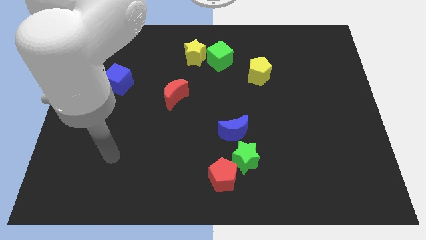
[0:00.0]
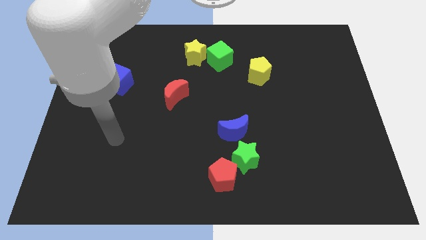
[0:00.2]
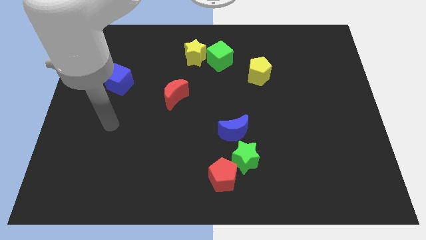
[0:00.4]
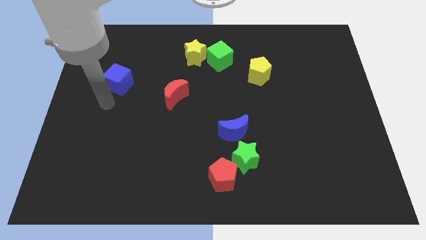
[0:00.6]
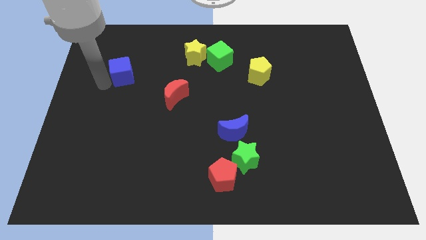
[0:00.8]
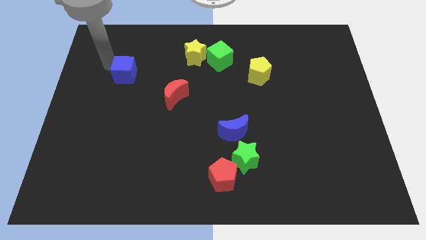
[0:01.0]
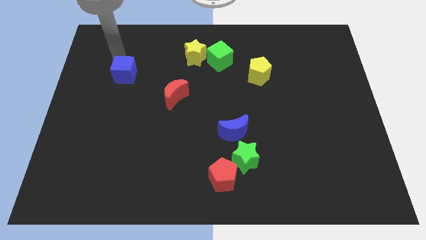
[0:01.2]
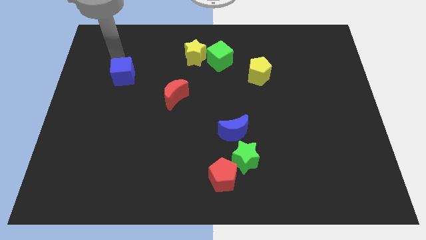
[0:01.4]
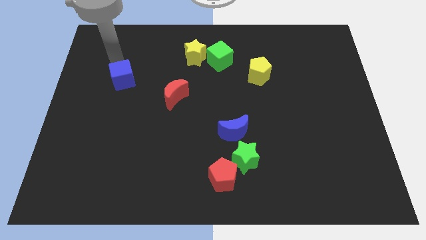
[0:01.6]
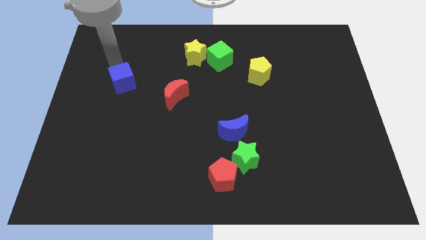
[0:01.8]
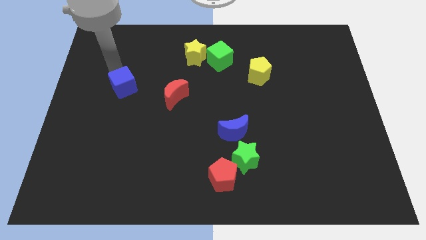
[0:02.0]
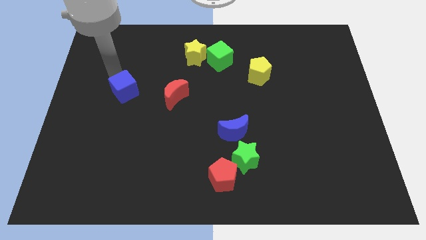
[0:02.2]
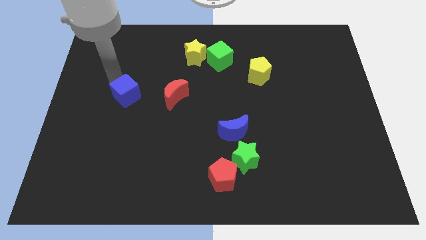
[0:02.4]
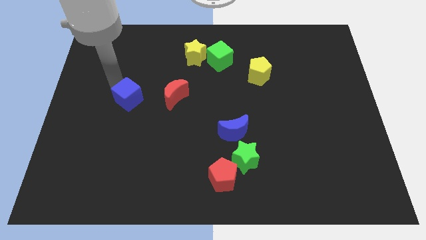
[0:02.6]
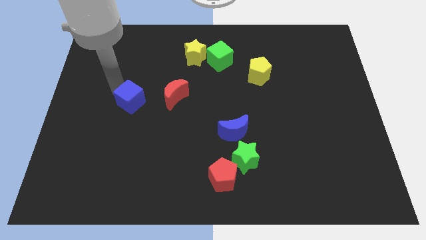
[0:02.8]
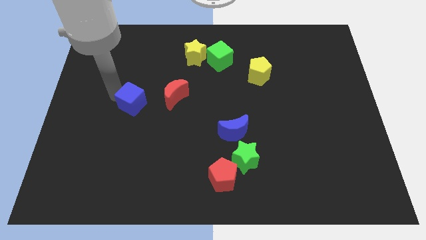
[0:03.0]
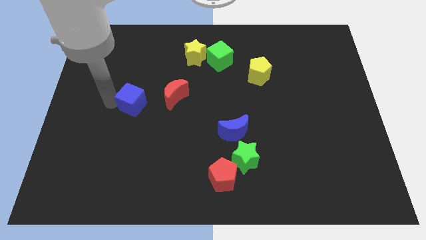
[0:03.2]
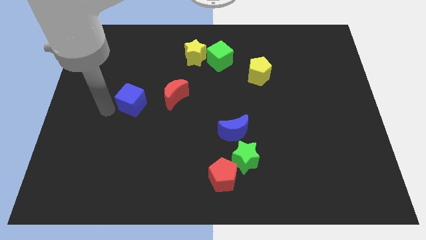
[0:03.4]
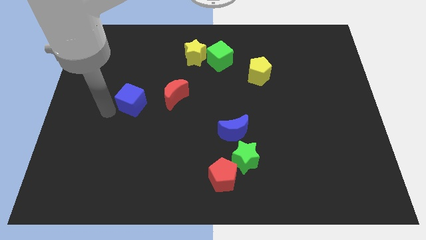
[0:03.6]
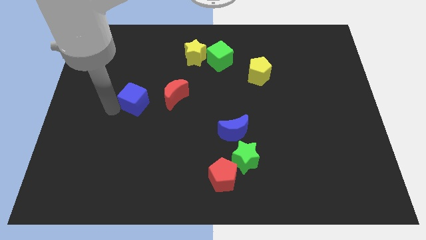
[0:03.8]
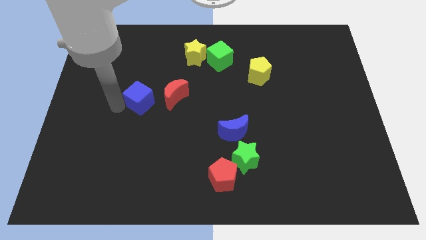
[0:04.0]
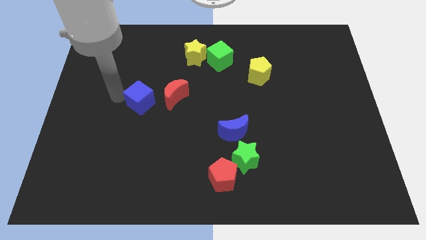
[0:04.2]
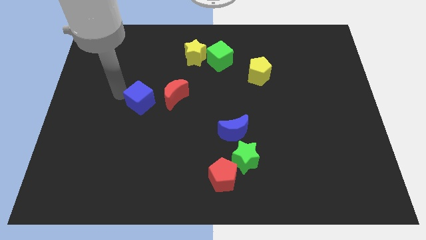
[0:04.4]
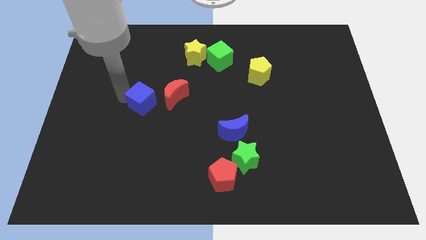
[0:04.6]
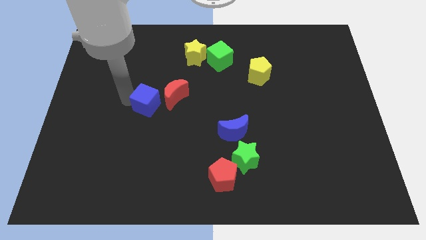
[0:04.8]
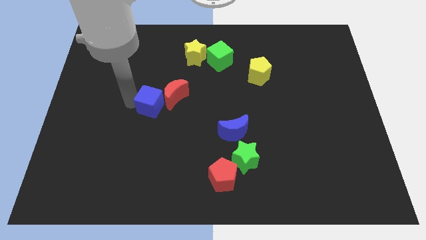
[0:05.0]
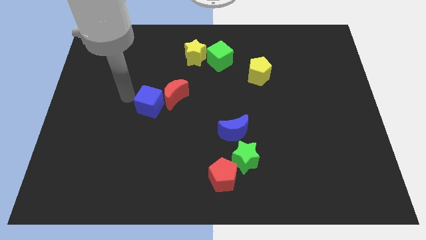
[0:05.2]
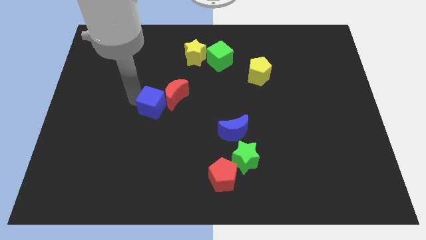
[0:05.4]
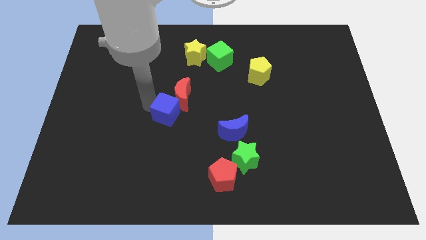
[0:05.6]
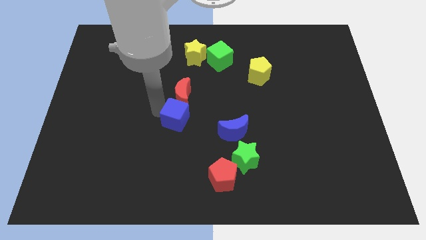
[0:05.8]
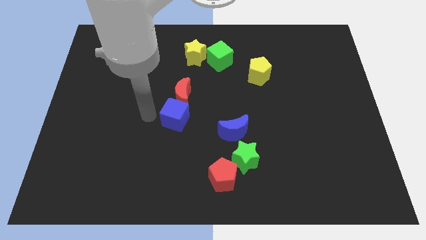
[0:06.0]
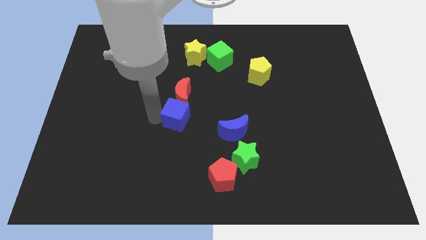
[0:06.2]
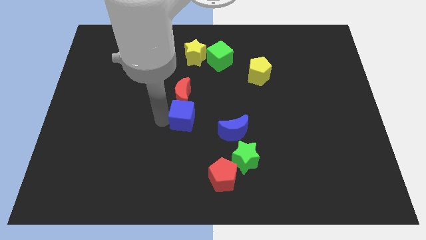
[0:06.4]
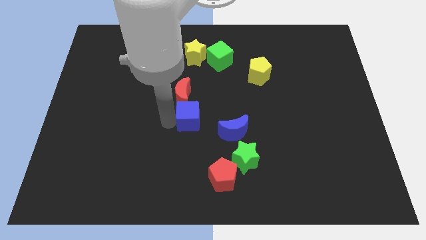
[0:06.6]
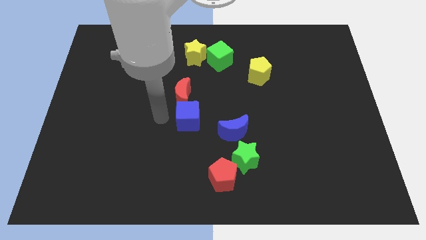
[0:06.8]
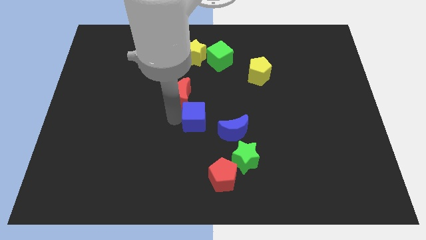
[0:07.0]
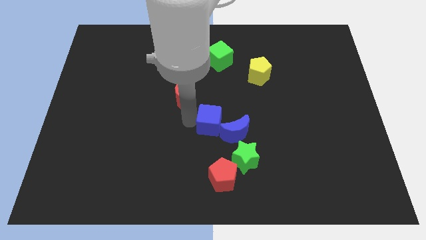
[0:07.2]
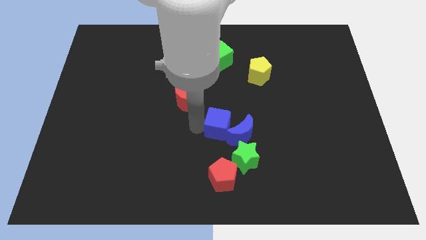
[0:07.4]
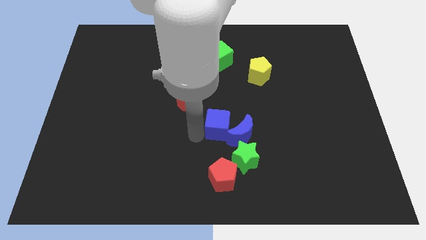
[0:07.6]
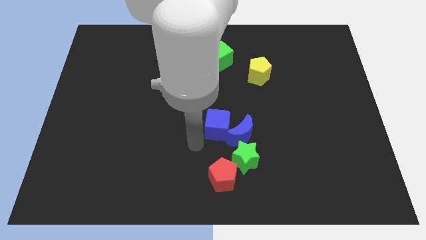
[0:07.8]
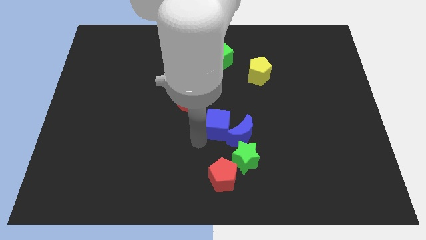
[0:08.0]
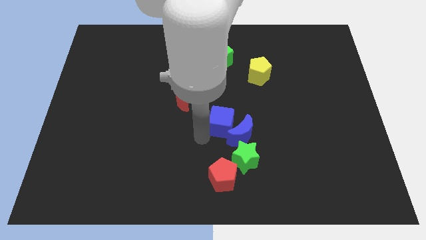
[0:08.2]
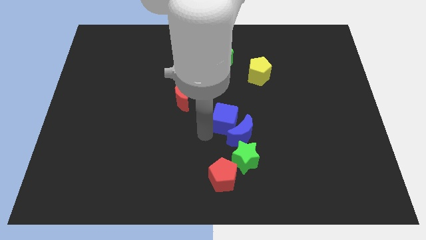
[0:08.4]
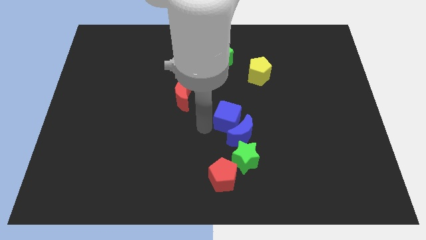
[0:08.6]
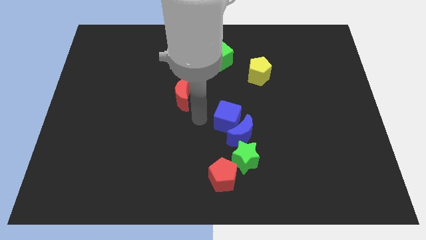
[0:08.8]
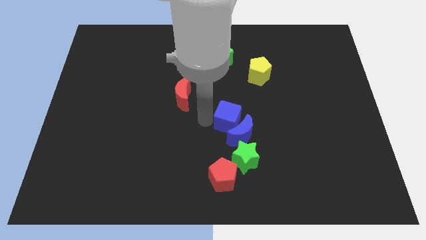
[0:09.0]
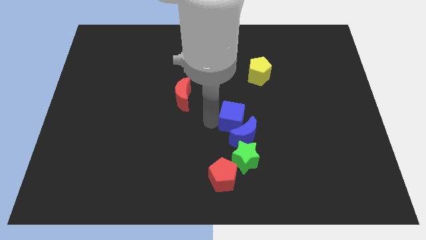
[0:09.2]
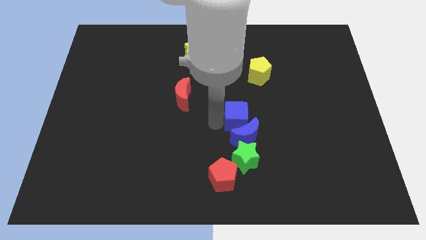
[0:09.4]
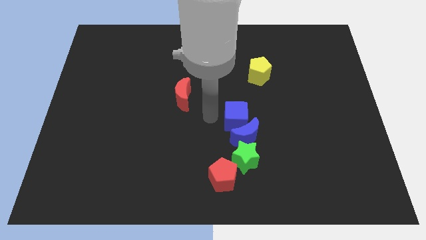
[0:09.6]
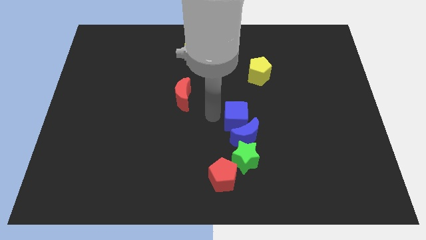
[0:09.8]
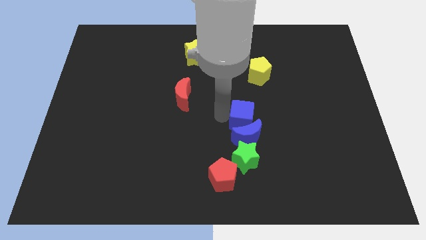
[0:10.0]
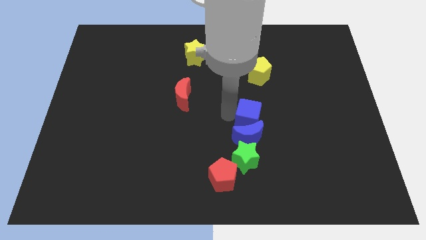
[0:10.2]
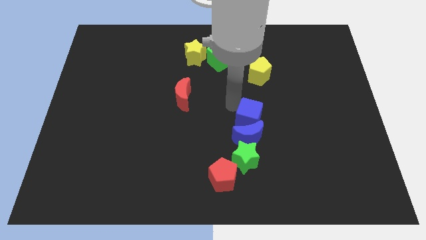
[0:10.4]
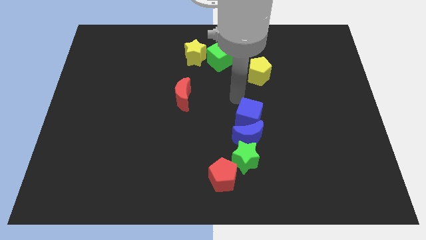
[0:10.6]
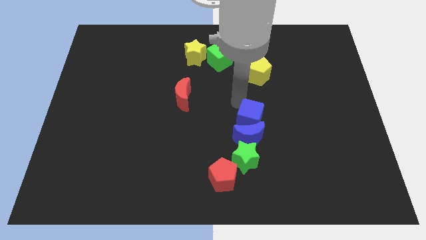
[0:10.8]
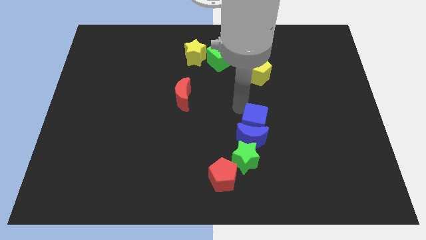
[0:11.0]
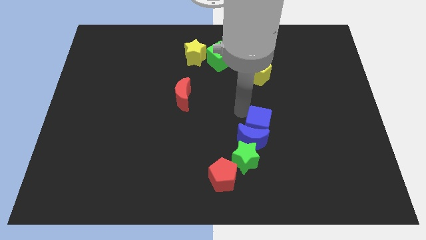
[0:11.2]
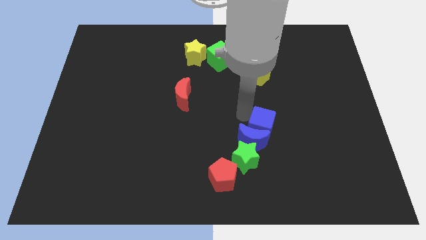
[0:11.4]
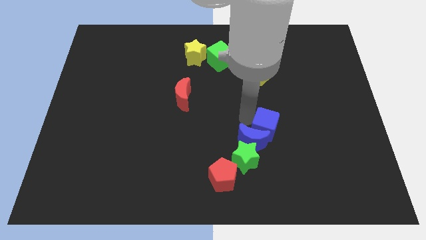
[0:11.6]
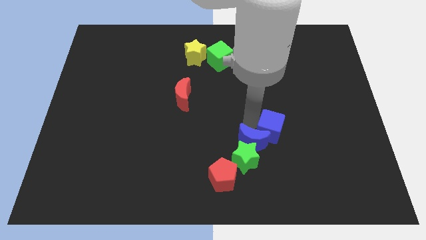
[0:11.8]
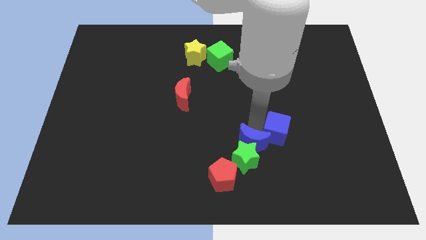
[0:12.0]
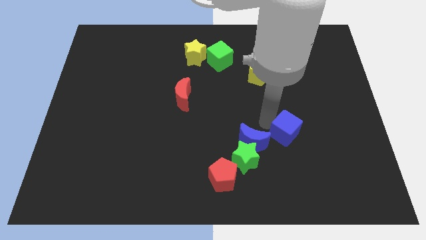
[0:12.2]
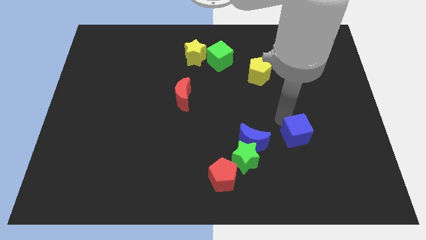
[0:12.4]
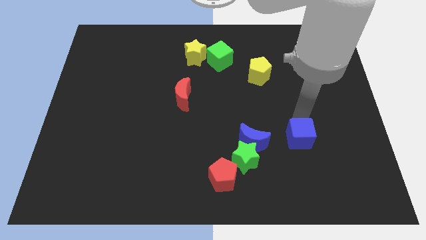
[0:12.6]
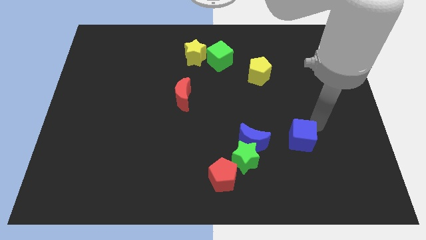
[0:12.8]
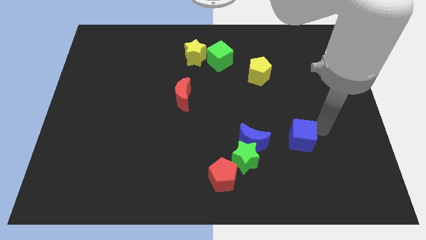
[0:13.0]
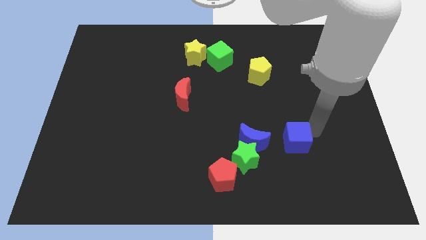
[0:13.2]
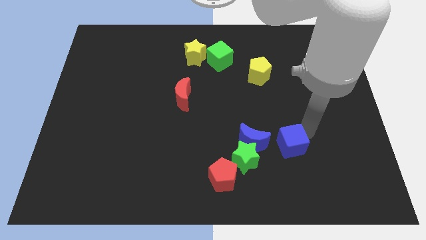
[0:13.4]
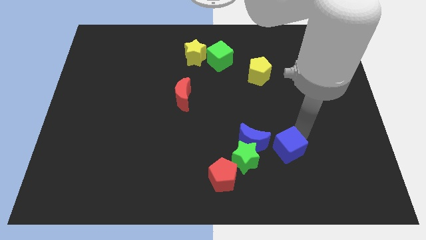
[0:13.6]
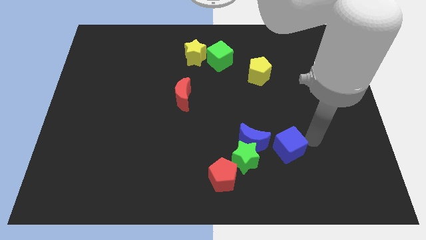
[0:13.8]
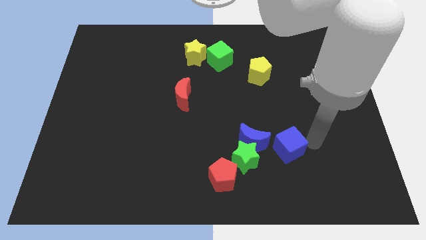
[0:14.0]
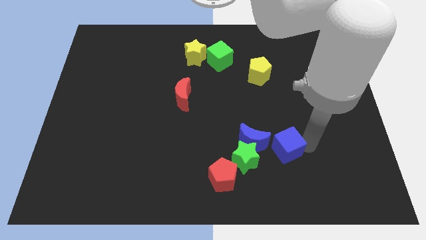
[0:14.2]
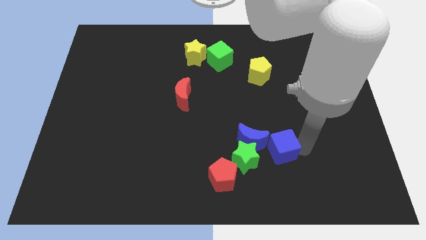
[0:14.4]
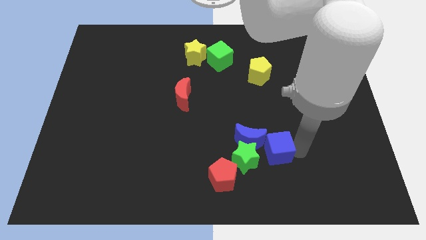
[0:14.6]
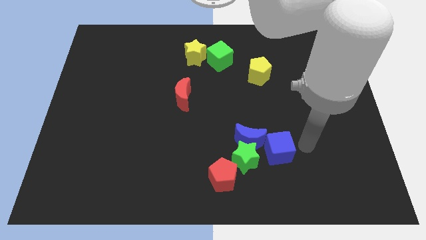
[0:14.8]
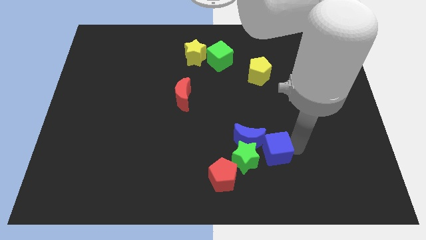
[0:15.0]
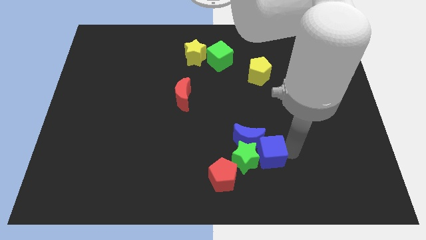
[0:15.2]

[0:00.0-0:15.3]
move the blue cube diagonally down and to the right of the green star

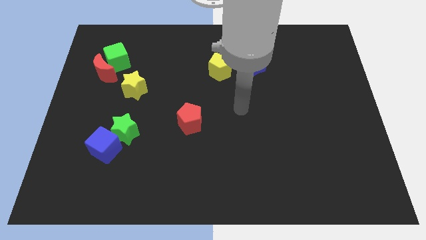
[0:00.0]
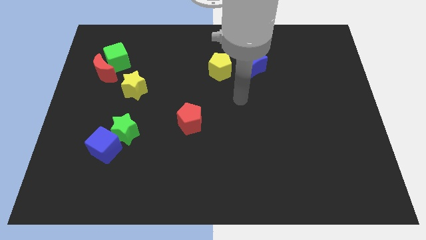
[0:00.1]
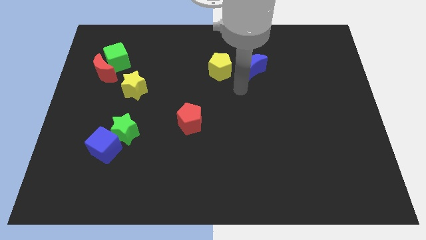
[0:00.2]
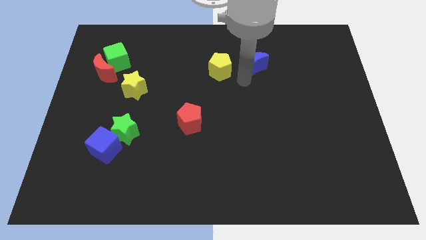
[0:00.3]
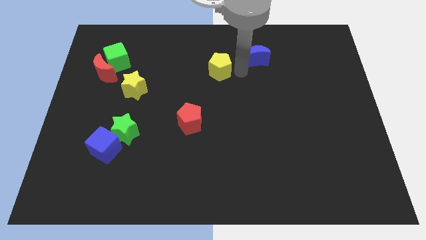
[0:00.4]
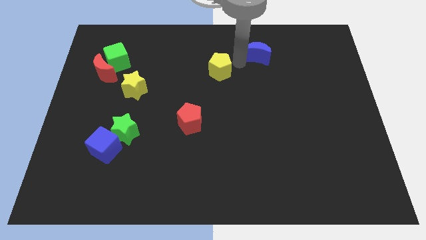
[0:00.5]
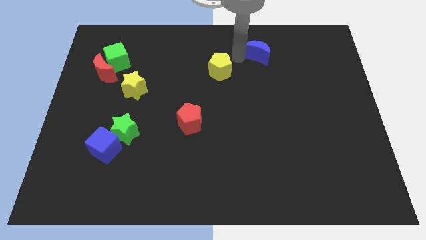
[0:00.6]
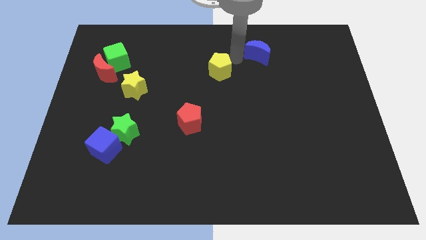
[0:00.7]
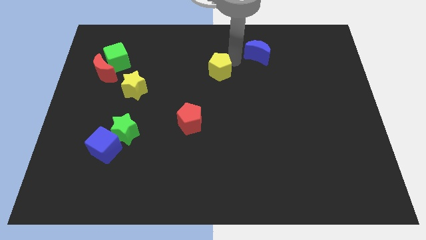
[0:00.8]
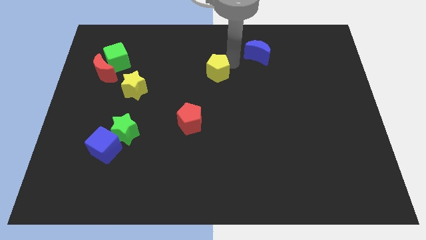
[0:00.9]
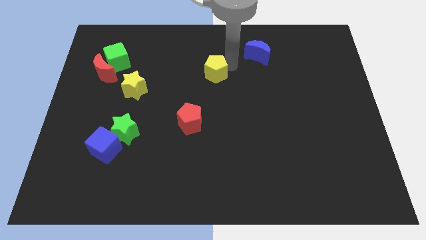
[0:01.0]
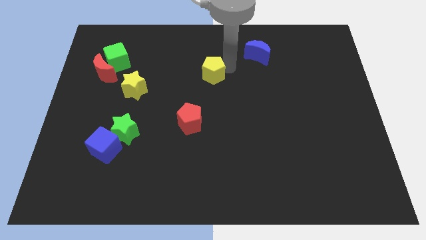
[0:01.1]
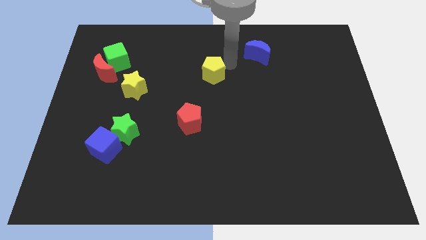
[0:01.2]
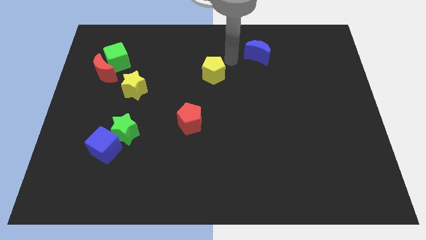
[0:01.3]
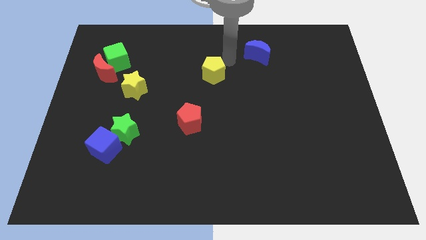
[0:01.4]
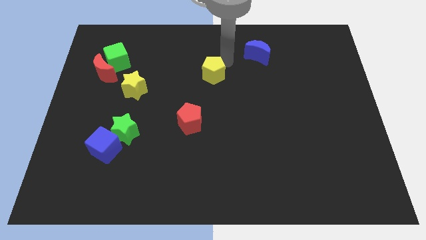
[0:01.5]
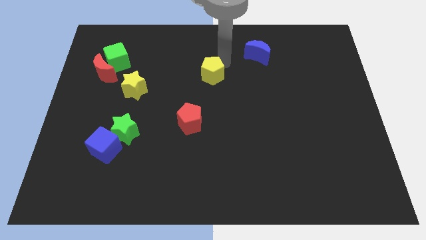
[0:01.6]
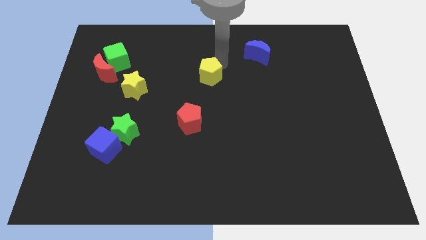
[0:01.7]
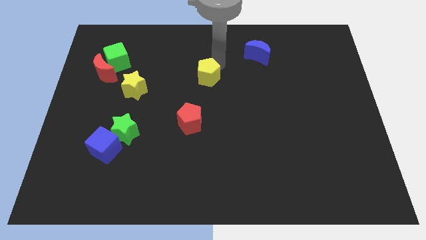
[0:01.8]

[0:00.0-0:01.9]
move the yellow pentagon above the red pentagon
